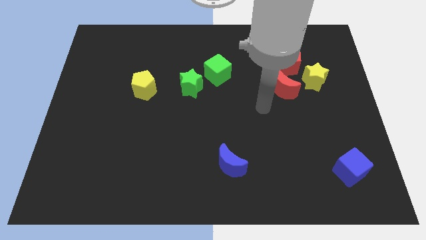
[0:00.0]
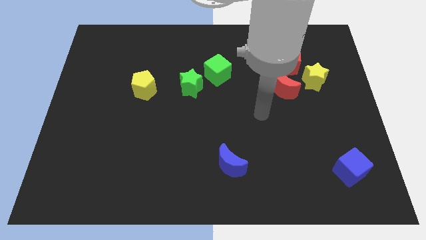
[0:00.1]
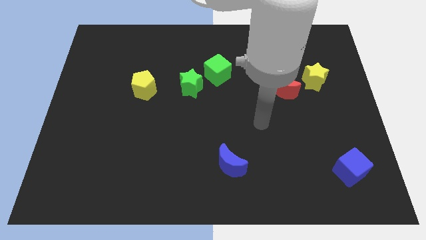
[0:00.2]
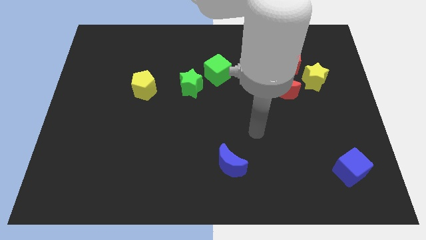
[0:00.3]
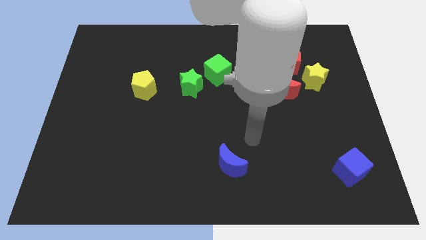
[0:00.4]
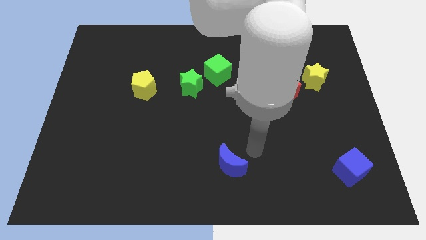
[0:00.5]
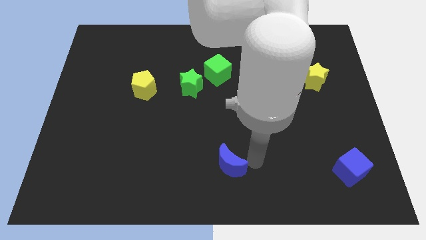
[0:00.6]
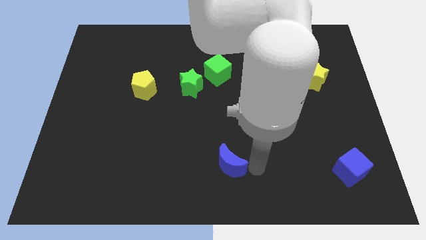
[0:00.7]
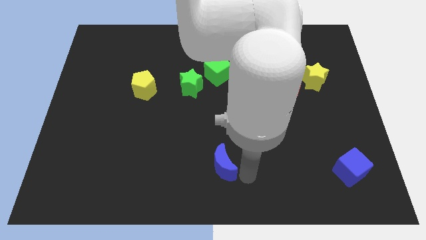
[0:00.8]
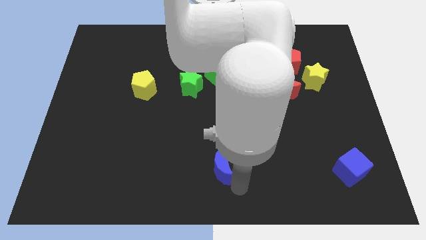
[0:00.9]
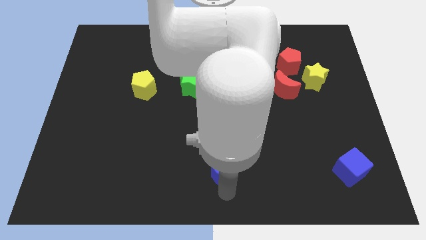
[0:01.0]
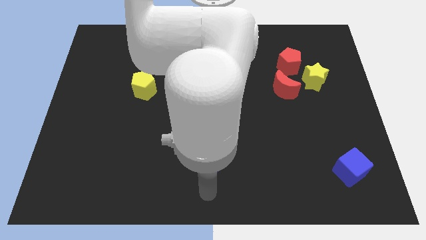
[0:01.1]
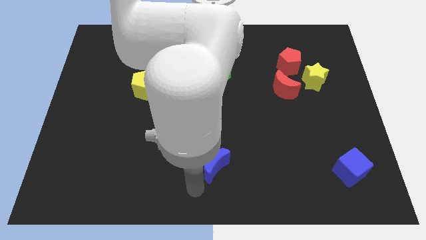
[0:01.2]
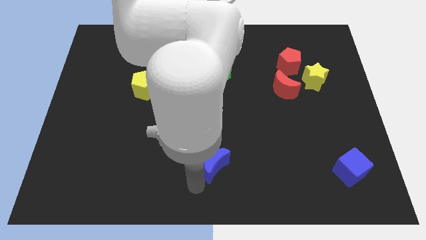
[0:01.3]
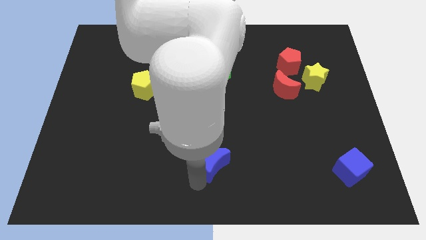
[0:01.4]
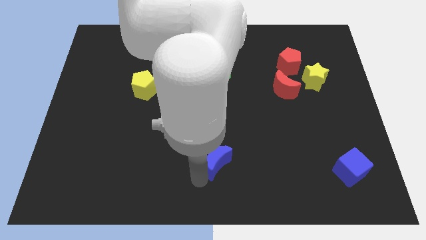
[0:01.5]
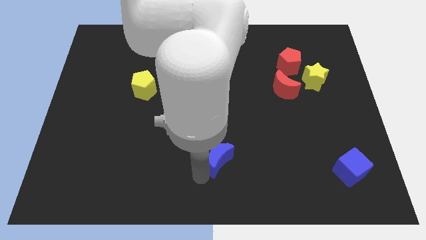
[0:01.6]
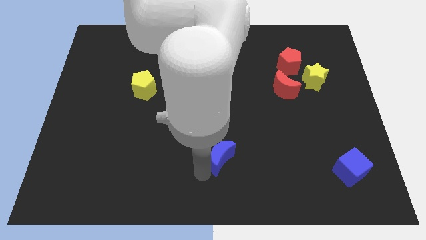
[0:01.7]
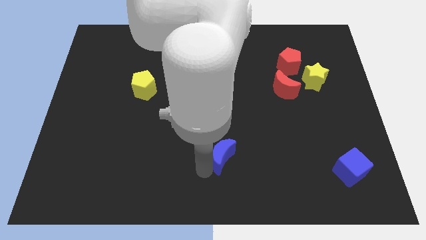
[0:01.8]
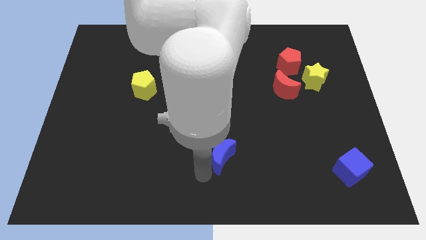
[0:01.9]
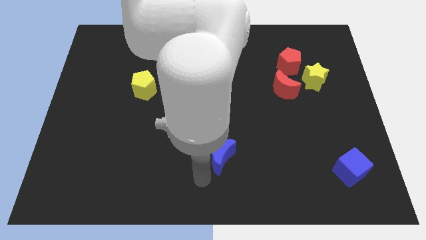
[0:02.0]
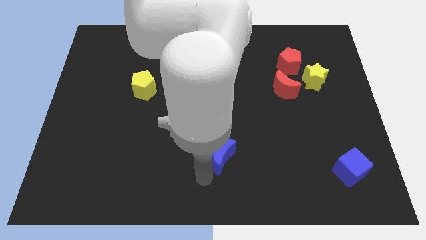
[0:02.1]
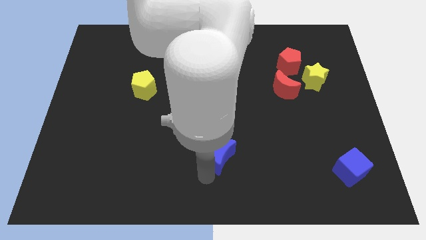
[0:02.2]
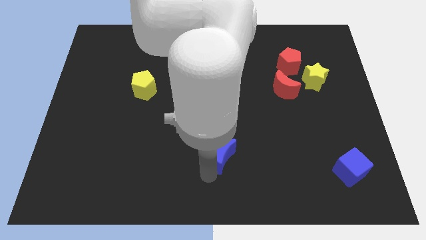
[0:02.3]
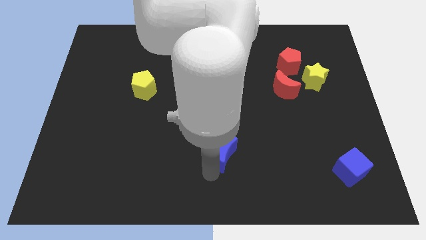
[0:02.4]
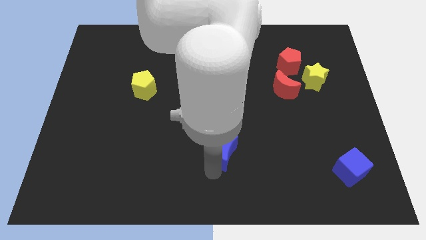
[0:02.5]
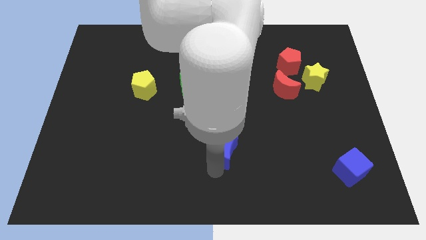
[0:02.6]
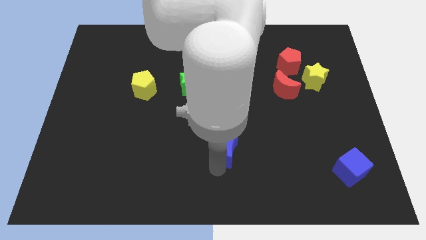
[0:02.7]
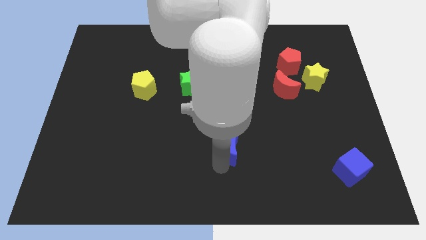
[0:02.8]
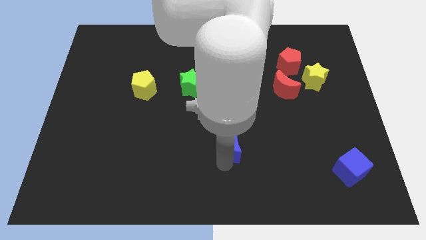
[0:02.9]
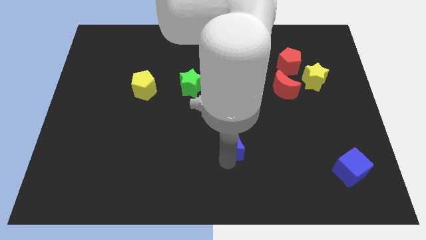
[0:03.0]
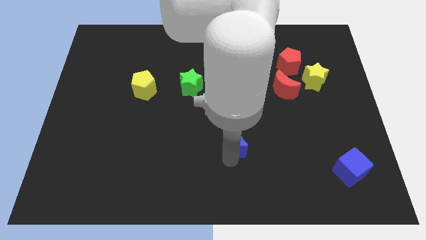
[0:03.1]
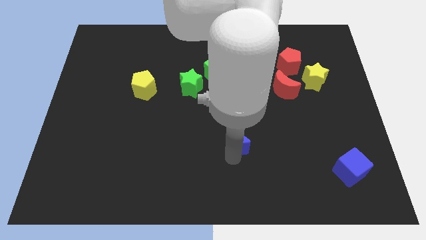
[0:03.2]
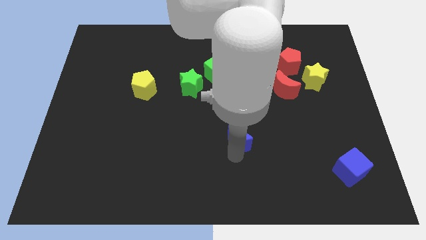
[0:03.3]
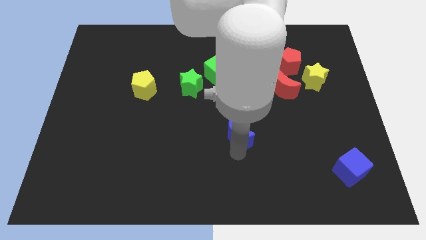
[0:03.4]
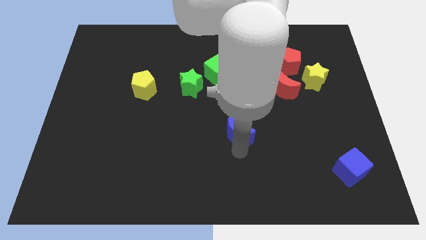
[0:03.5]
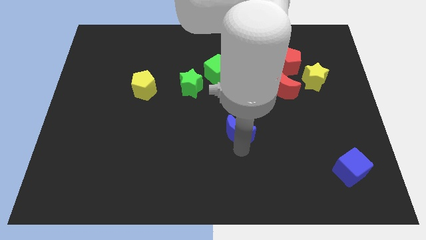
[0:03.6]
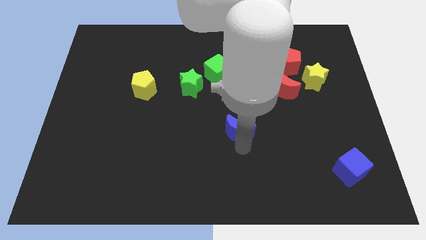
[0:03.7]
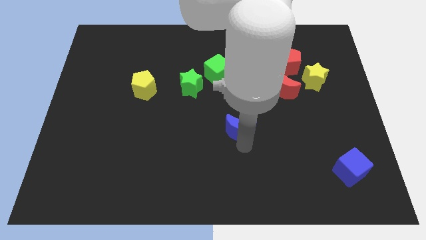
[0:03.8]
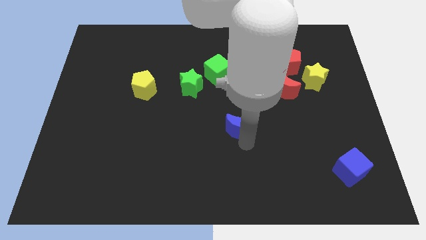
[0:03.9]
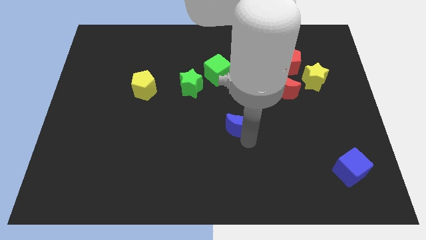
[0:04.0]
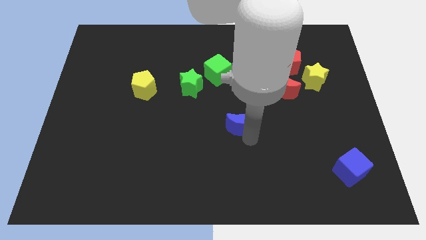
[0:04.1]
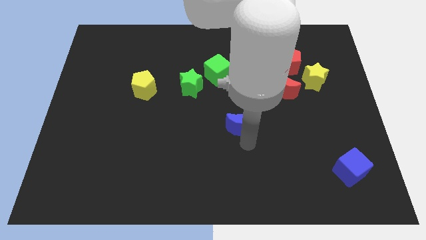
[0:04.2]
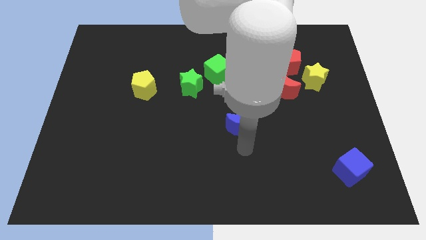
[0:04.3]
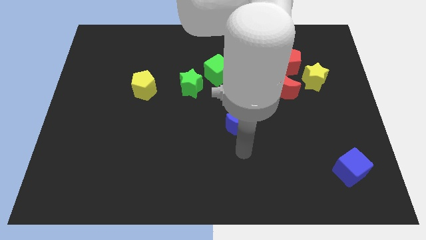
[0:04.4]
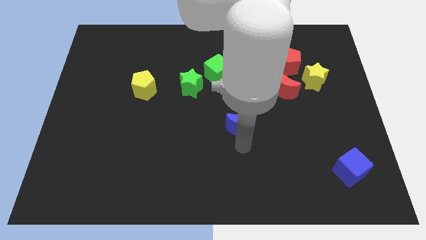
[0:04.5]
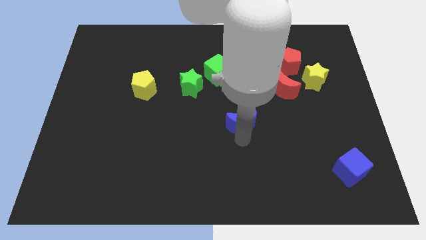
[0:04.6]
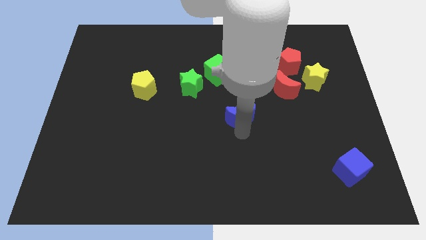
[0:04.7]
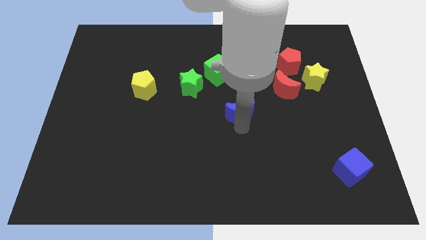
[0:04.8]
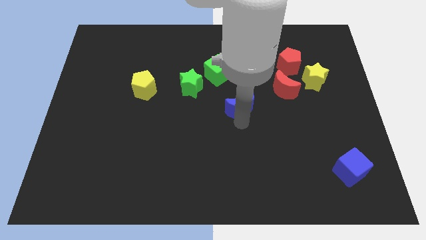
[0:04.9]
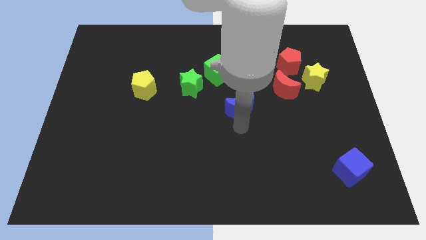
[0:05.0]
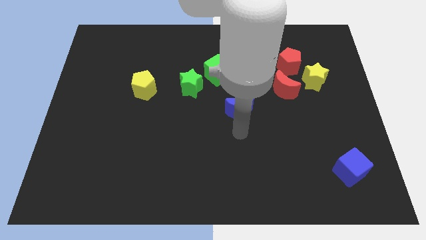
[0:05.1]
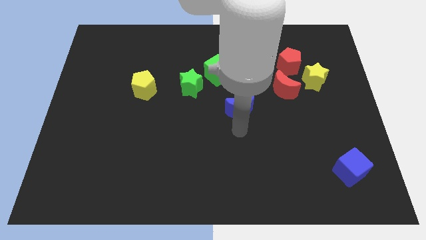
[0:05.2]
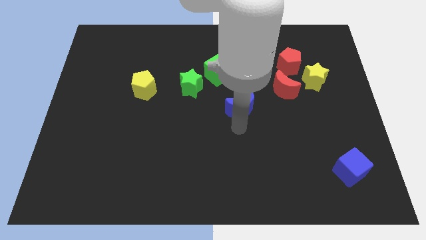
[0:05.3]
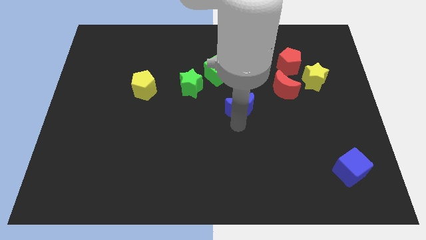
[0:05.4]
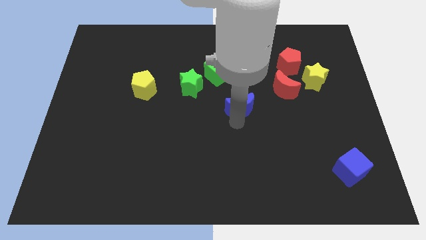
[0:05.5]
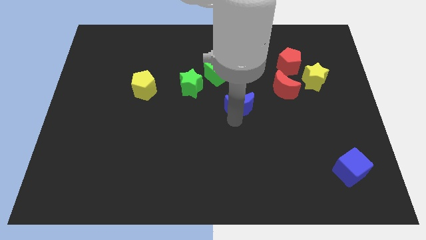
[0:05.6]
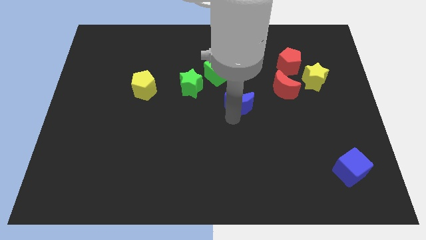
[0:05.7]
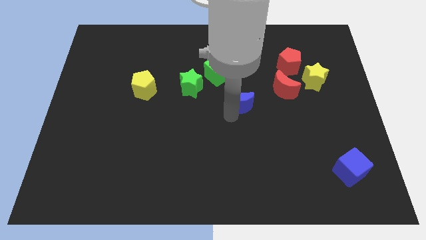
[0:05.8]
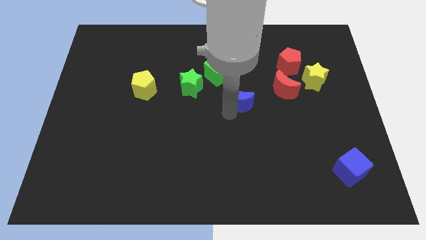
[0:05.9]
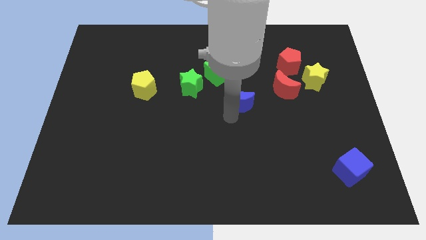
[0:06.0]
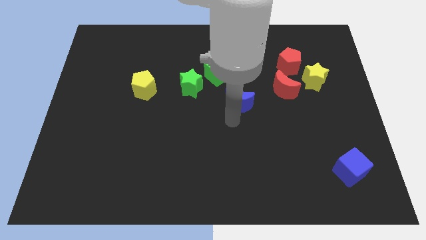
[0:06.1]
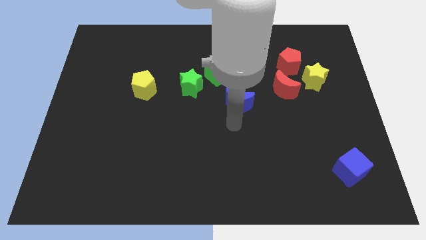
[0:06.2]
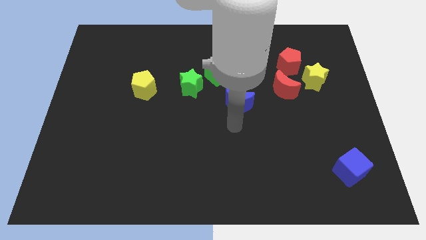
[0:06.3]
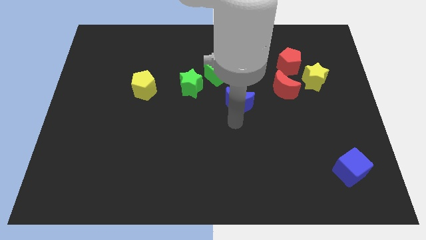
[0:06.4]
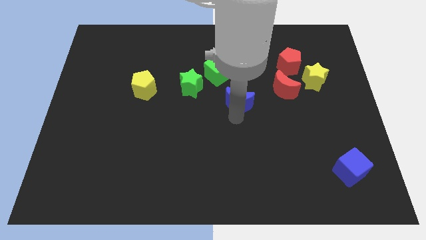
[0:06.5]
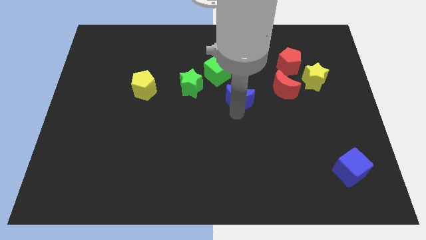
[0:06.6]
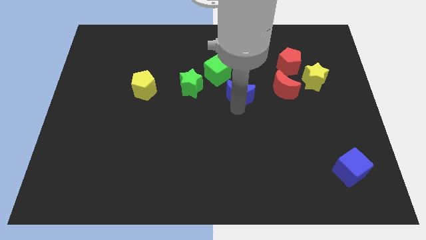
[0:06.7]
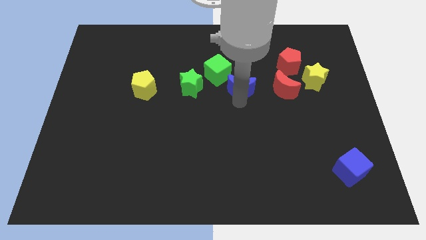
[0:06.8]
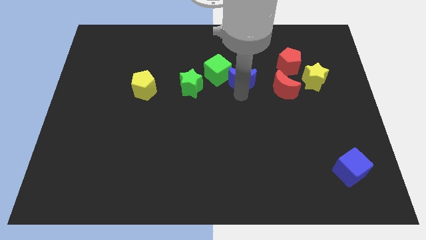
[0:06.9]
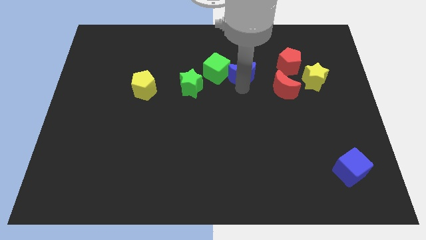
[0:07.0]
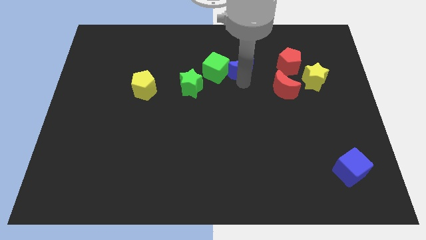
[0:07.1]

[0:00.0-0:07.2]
slide the blue moon to the top right side of the green cube

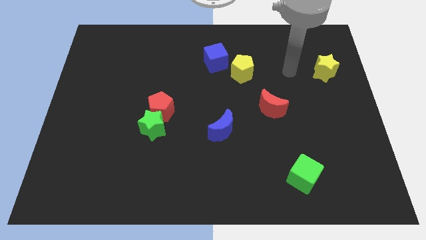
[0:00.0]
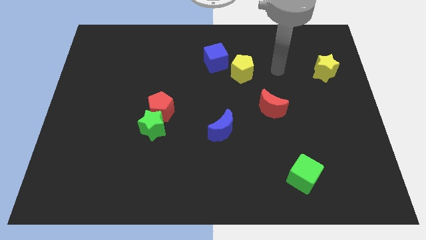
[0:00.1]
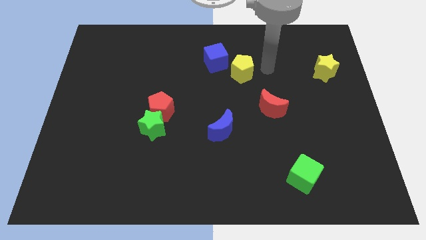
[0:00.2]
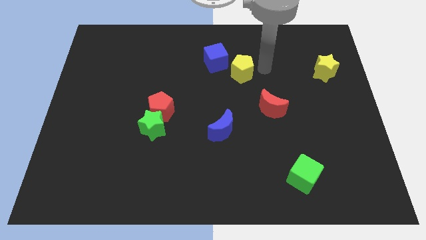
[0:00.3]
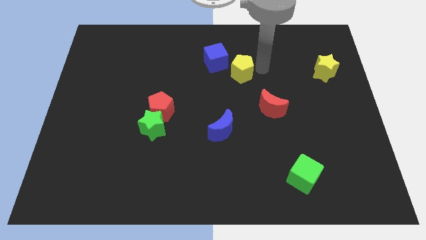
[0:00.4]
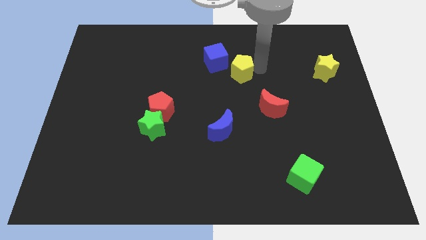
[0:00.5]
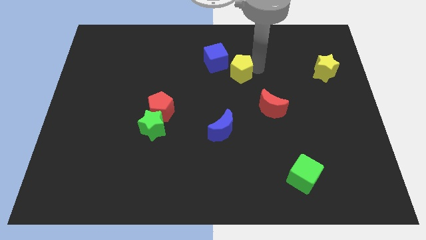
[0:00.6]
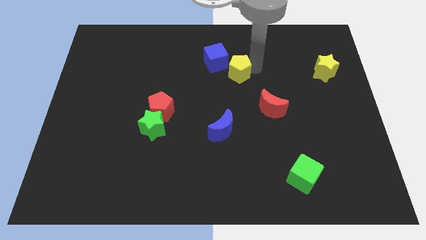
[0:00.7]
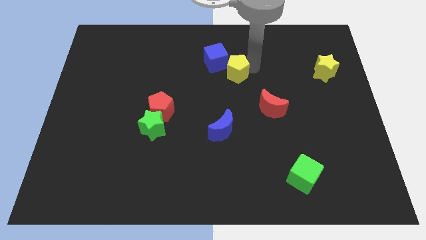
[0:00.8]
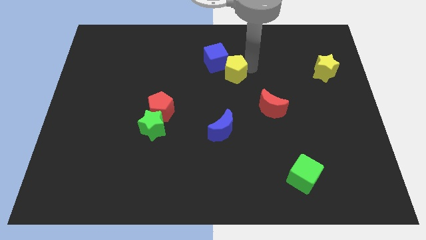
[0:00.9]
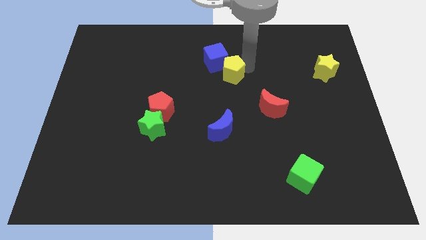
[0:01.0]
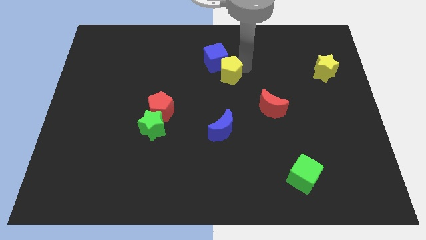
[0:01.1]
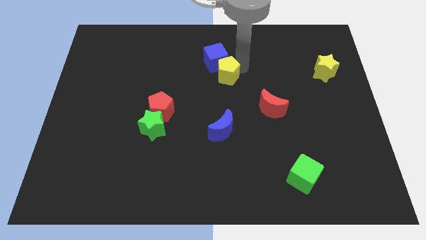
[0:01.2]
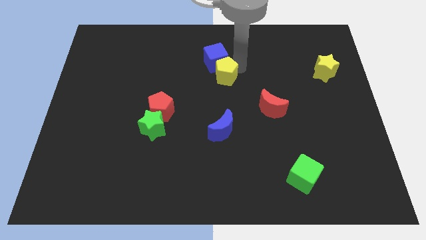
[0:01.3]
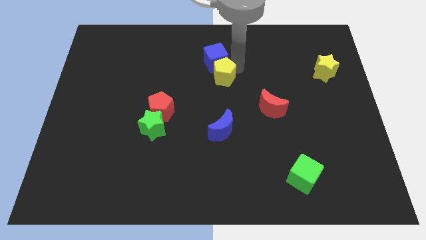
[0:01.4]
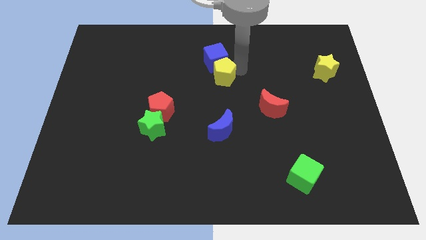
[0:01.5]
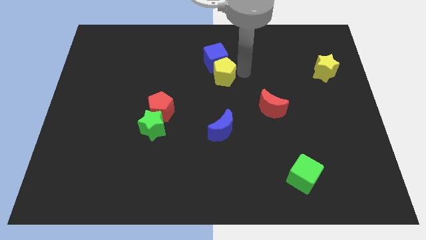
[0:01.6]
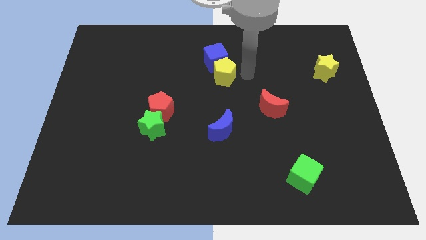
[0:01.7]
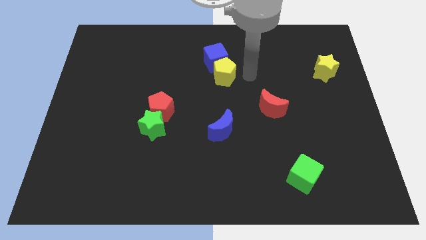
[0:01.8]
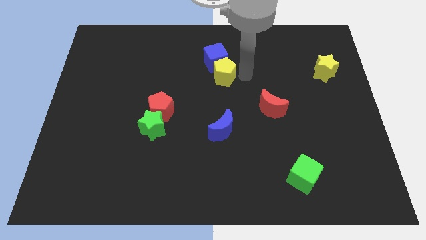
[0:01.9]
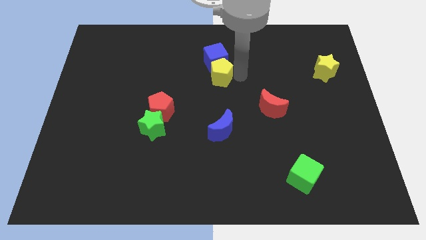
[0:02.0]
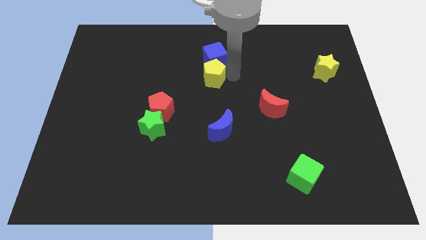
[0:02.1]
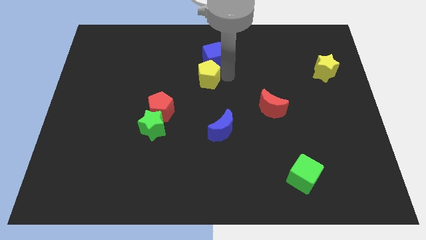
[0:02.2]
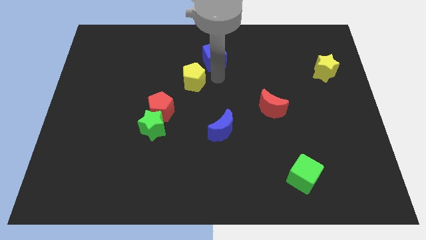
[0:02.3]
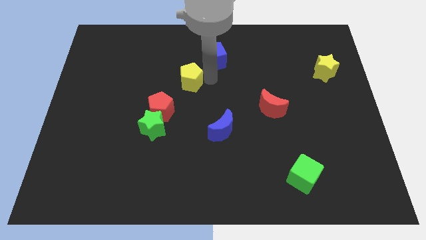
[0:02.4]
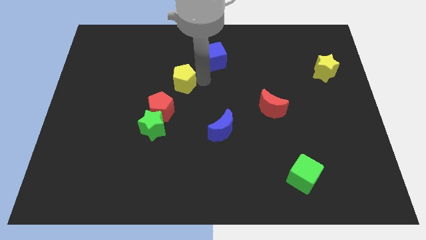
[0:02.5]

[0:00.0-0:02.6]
put the yellow pentagon to the top of the red pentagon
